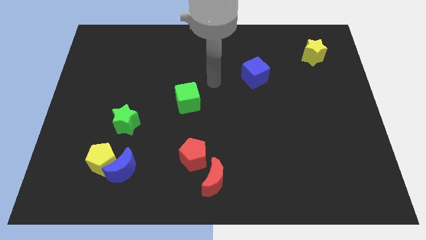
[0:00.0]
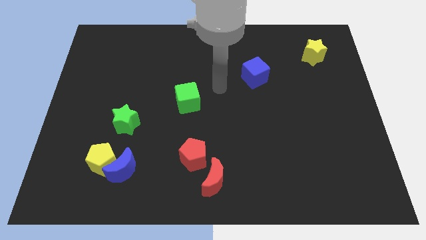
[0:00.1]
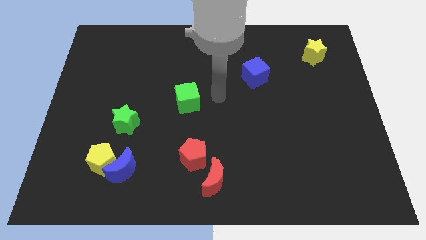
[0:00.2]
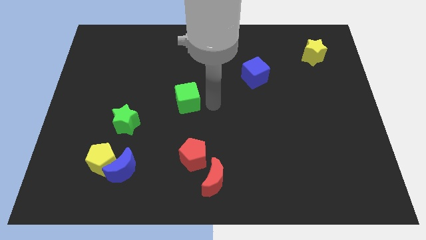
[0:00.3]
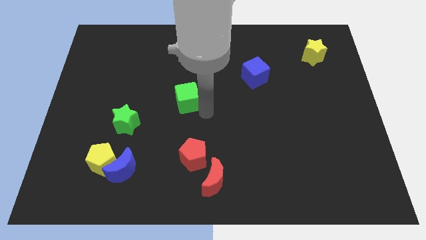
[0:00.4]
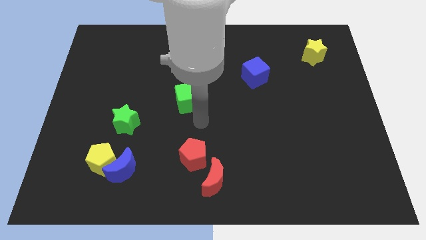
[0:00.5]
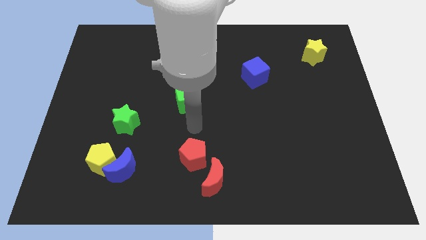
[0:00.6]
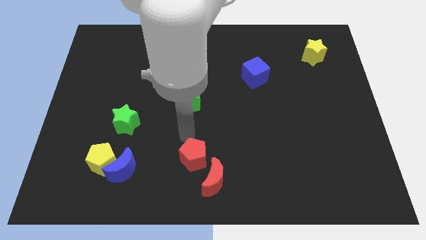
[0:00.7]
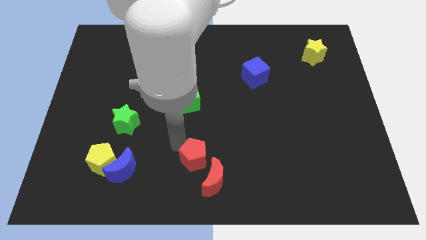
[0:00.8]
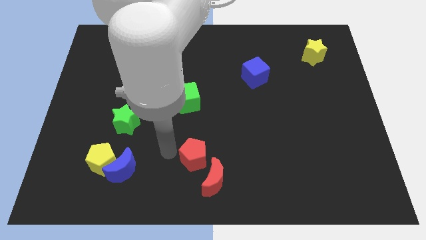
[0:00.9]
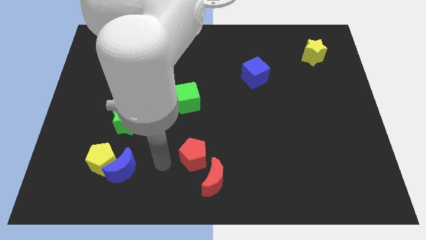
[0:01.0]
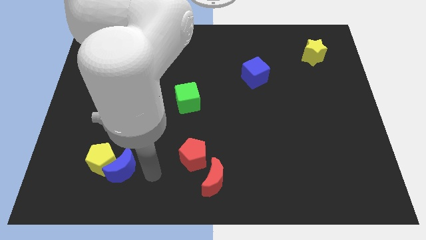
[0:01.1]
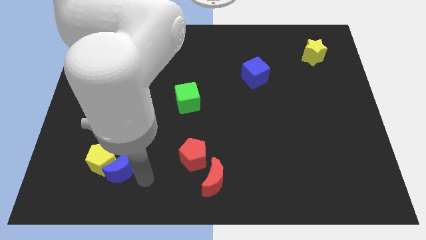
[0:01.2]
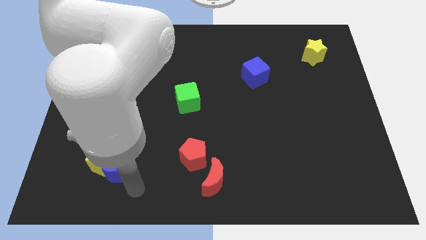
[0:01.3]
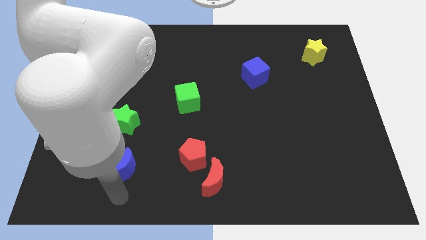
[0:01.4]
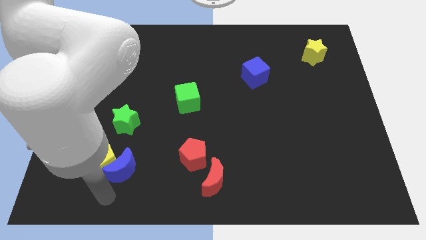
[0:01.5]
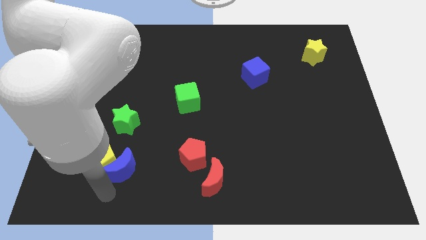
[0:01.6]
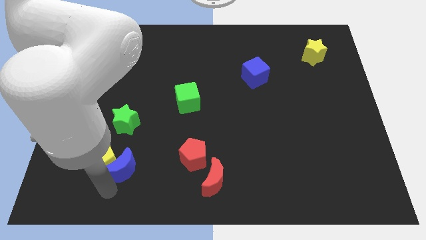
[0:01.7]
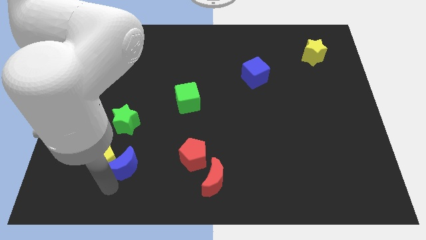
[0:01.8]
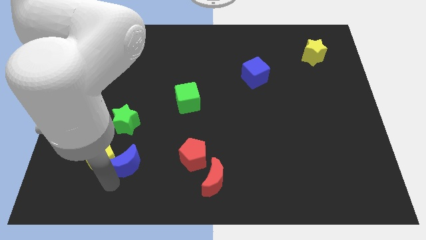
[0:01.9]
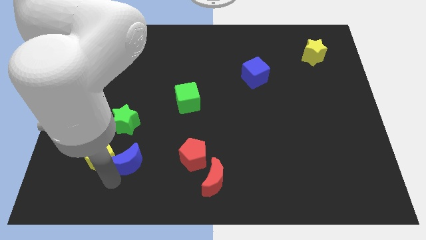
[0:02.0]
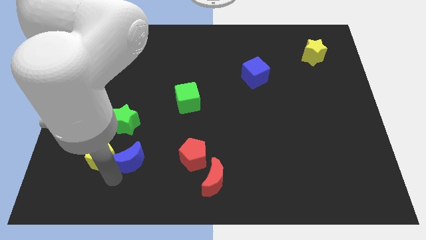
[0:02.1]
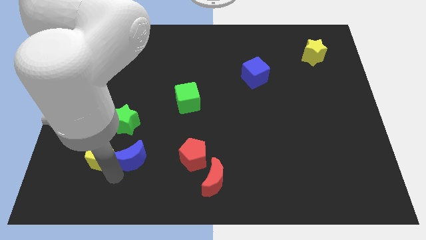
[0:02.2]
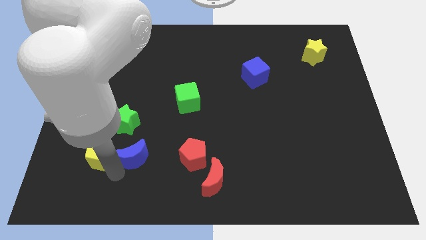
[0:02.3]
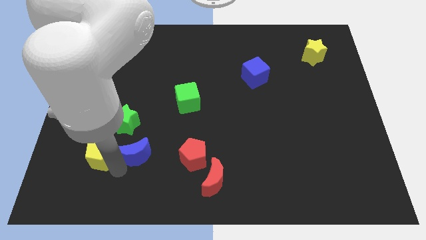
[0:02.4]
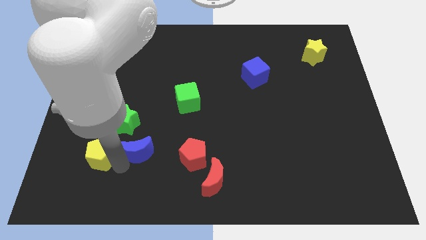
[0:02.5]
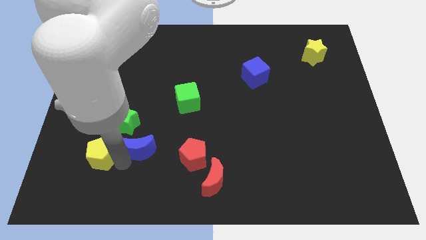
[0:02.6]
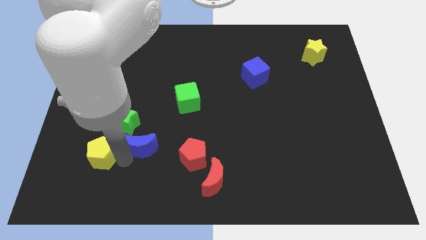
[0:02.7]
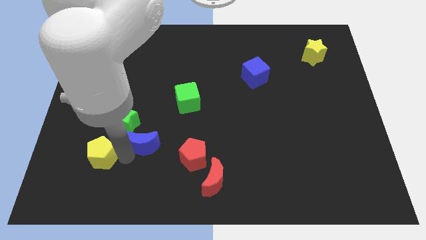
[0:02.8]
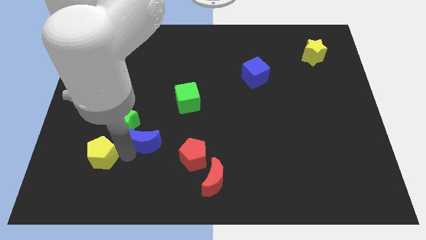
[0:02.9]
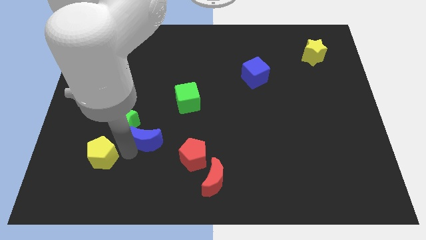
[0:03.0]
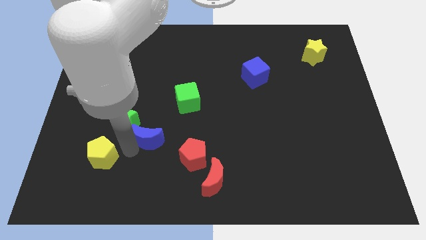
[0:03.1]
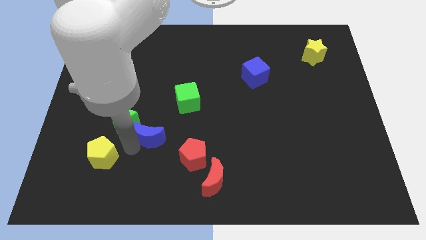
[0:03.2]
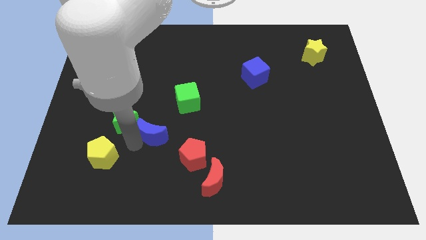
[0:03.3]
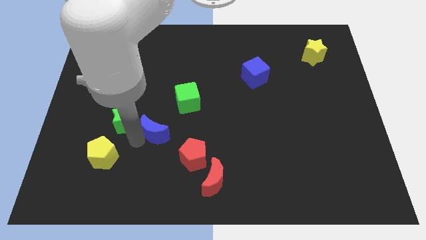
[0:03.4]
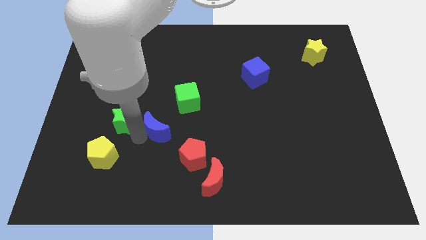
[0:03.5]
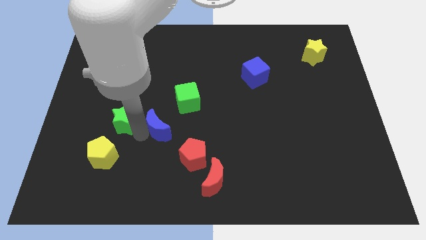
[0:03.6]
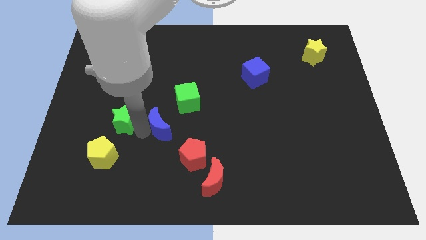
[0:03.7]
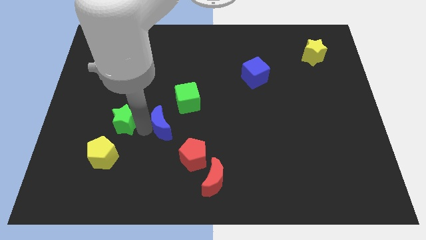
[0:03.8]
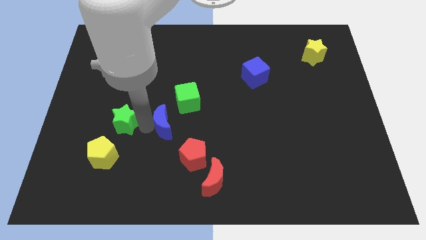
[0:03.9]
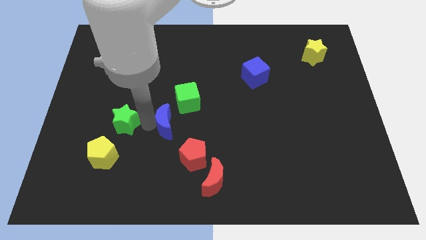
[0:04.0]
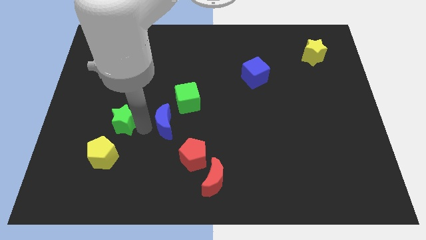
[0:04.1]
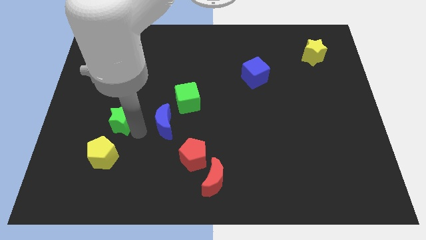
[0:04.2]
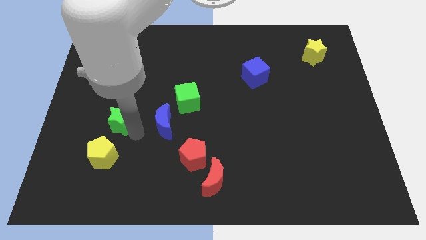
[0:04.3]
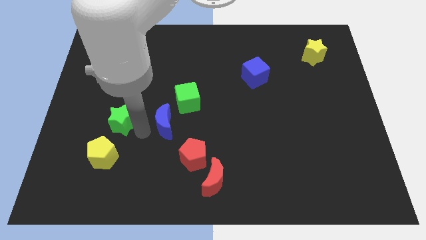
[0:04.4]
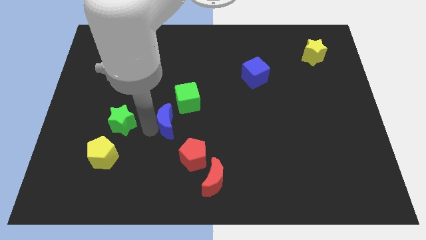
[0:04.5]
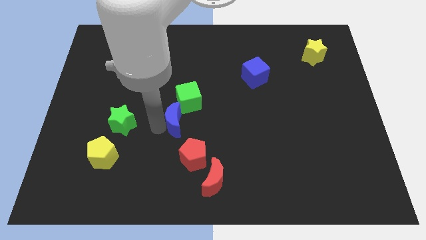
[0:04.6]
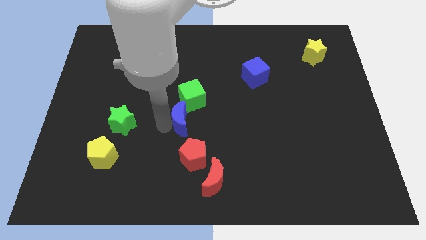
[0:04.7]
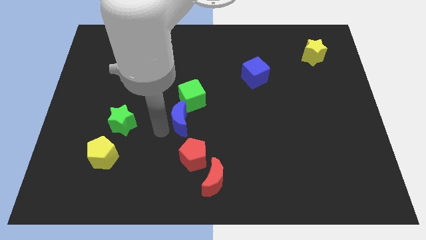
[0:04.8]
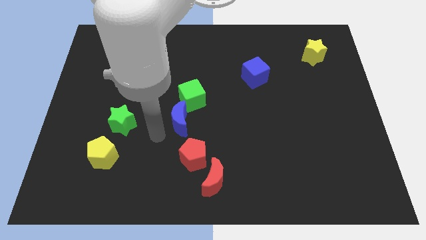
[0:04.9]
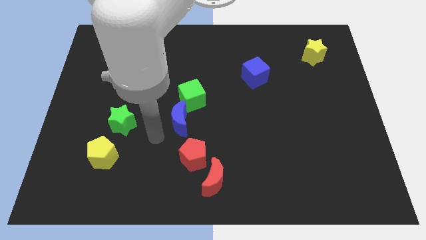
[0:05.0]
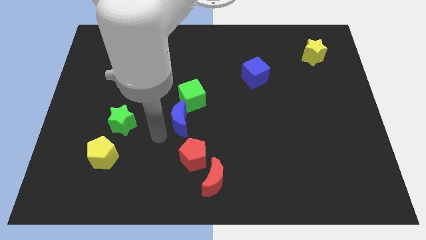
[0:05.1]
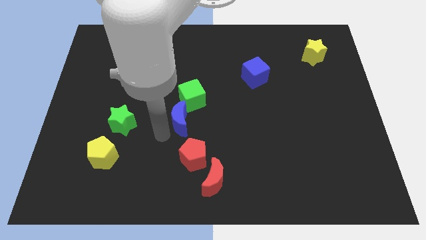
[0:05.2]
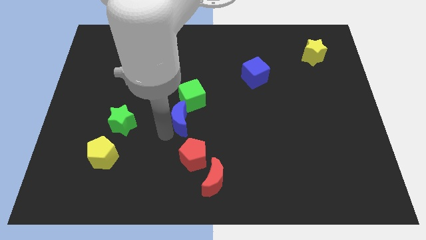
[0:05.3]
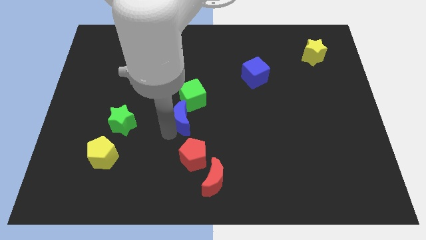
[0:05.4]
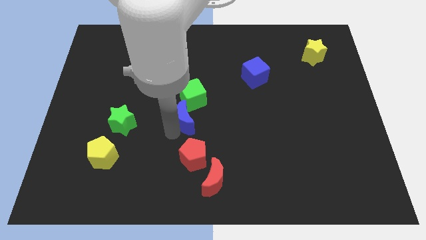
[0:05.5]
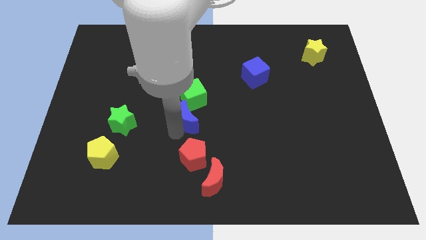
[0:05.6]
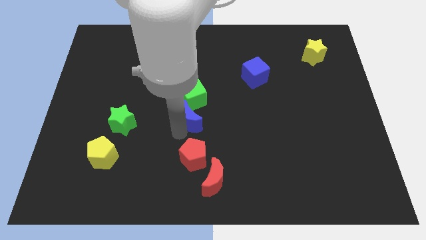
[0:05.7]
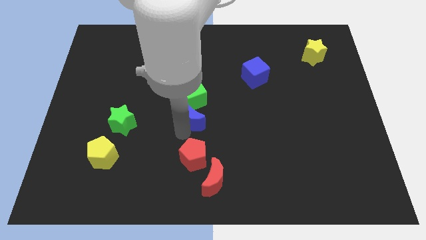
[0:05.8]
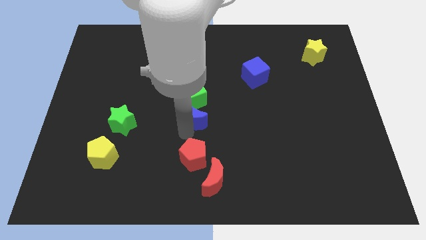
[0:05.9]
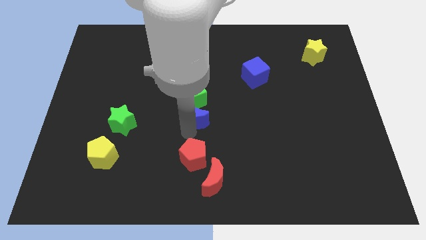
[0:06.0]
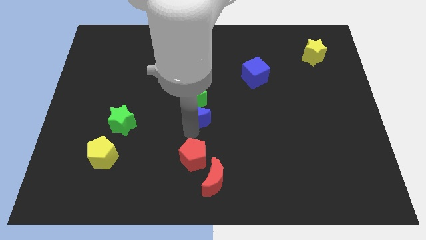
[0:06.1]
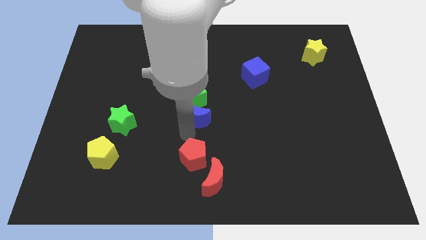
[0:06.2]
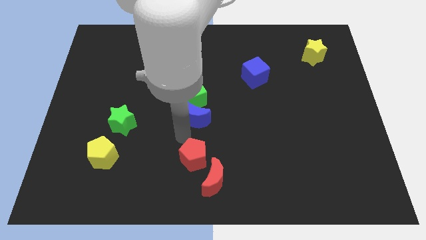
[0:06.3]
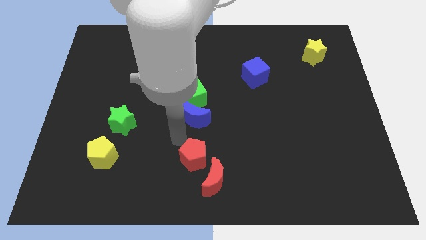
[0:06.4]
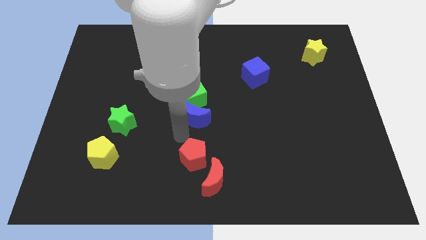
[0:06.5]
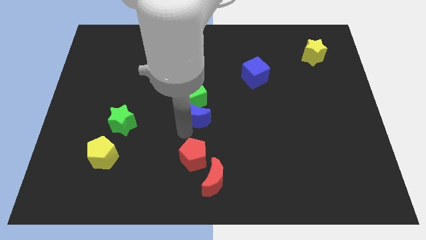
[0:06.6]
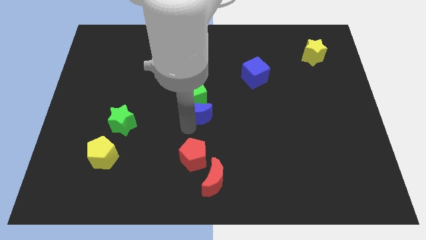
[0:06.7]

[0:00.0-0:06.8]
slide the blue moon up and right diagonally

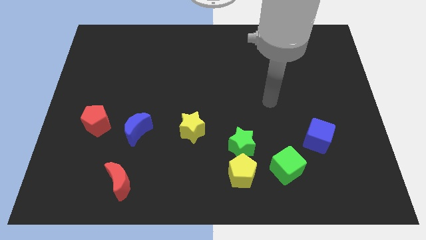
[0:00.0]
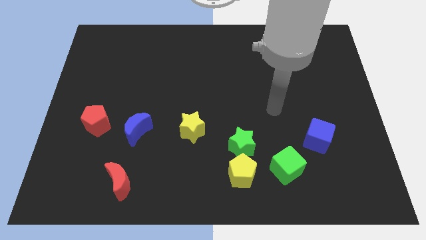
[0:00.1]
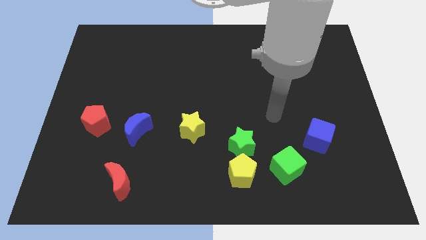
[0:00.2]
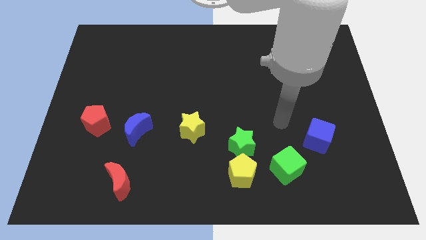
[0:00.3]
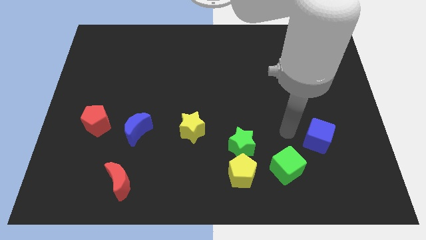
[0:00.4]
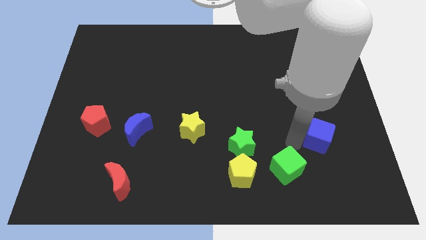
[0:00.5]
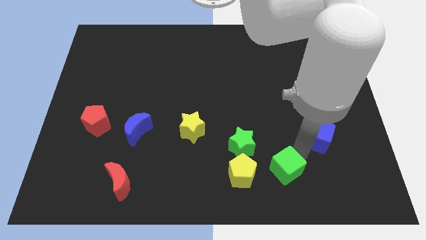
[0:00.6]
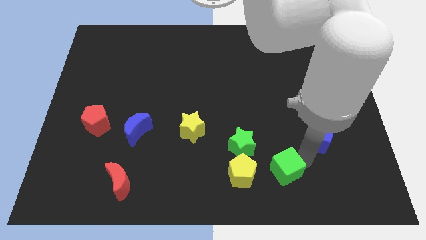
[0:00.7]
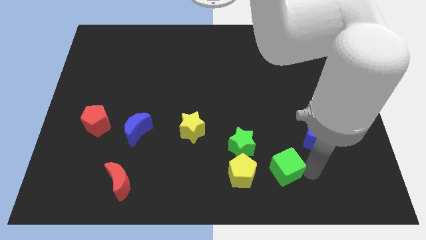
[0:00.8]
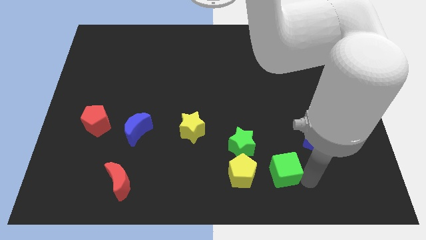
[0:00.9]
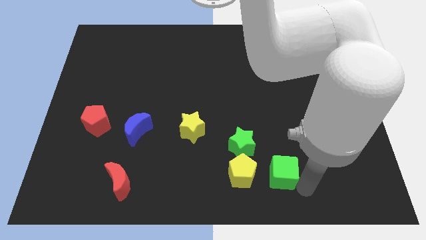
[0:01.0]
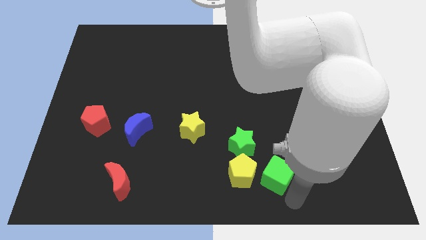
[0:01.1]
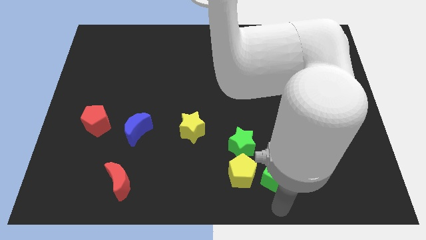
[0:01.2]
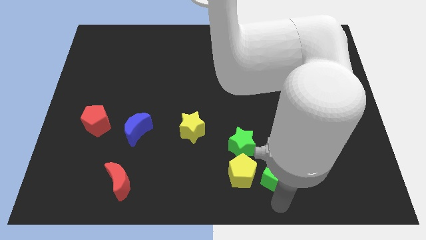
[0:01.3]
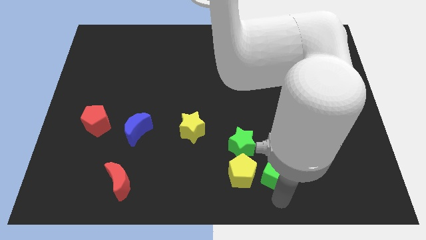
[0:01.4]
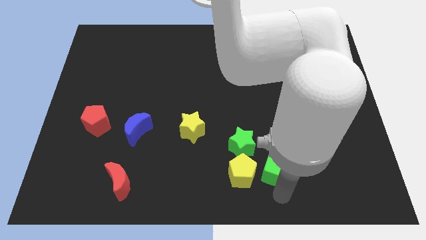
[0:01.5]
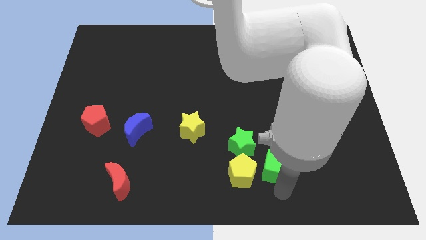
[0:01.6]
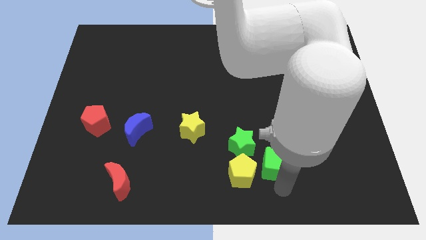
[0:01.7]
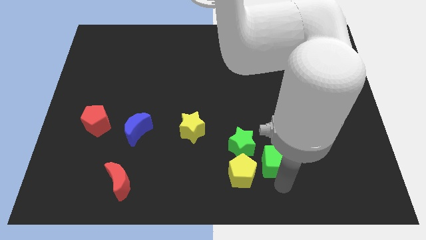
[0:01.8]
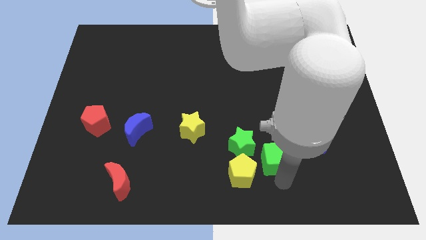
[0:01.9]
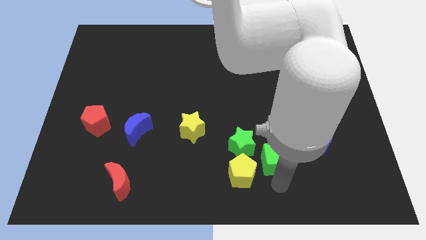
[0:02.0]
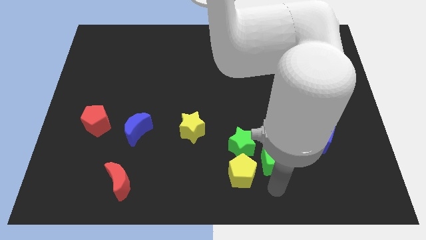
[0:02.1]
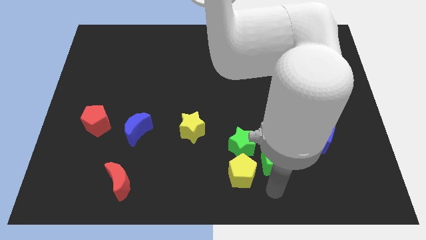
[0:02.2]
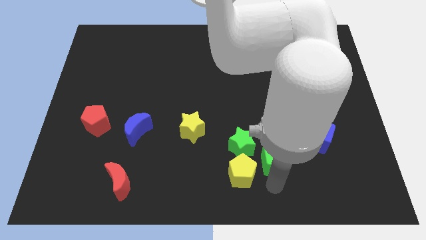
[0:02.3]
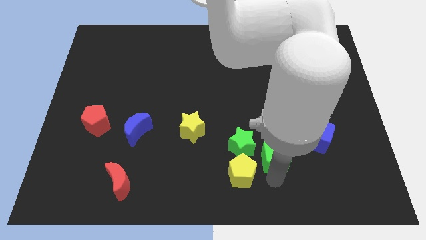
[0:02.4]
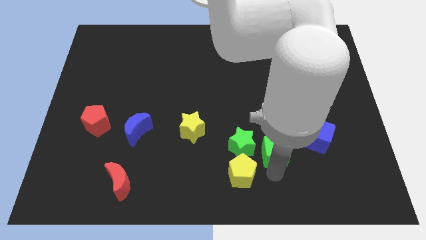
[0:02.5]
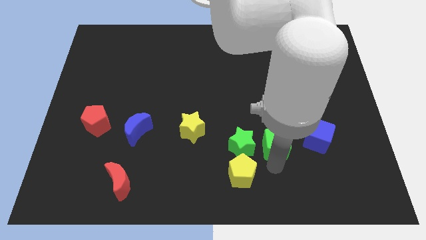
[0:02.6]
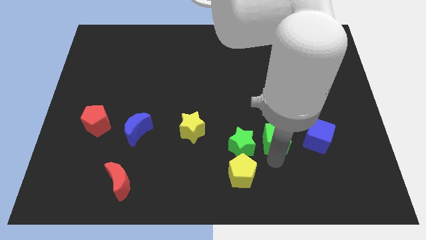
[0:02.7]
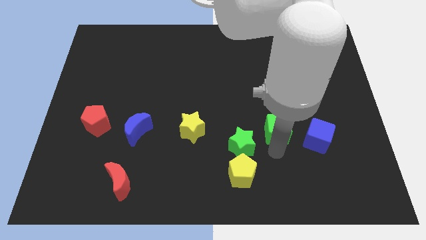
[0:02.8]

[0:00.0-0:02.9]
push the green cube a bit upwards
